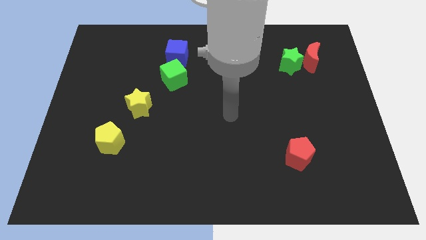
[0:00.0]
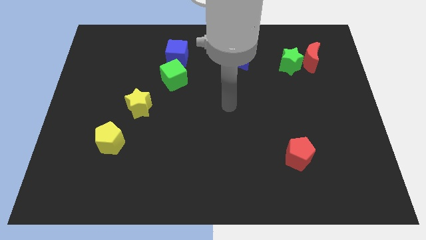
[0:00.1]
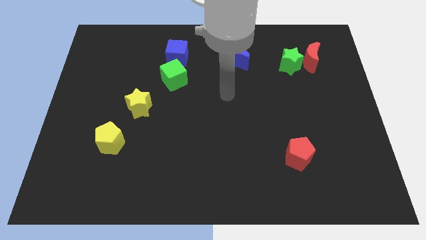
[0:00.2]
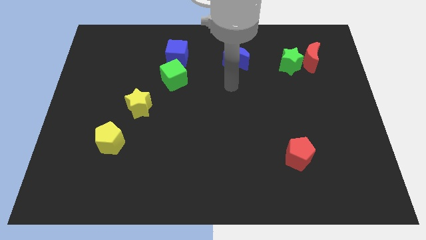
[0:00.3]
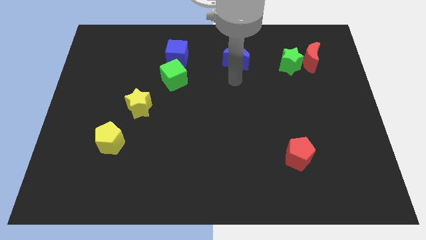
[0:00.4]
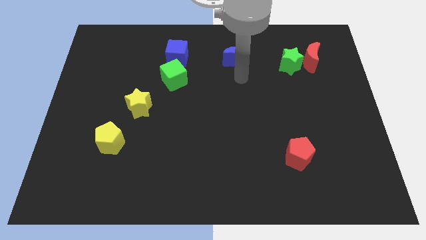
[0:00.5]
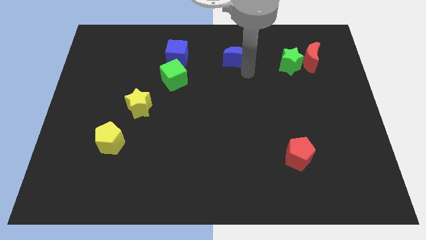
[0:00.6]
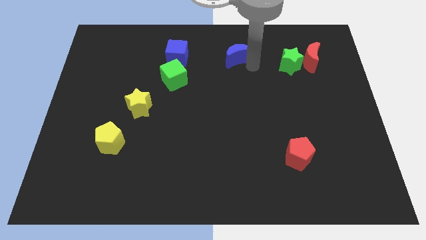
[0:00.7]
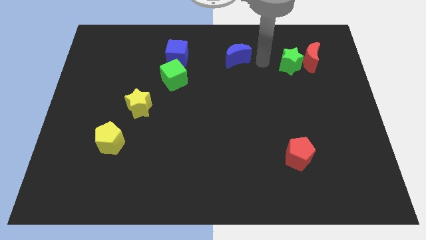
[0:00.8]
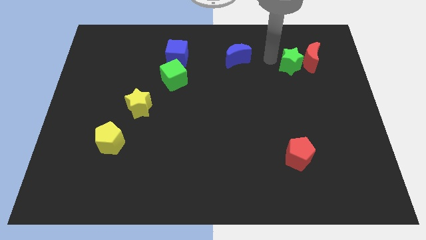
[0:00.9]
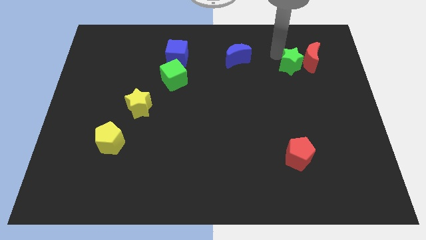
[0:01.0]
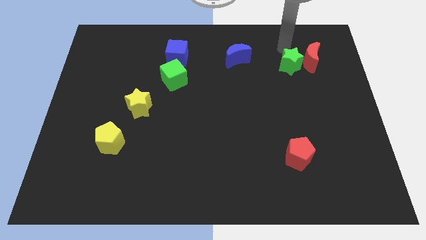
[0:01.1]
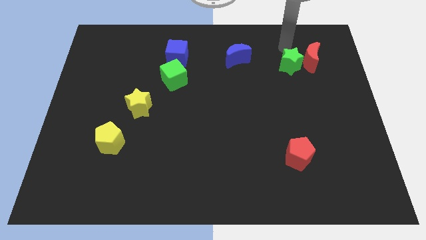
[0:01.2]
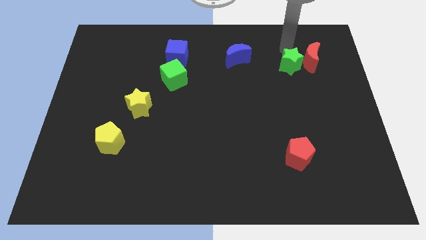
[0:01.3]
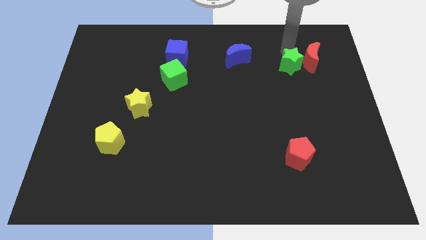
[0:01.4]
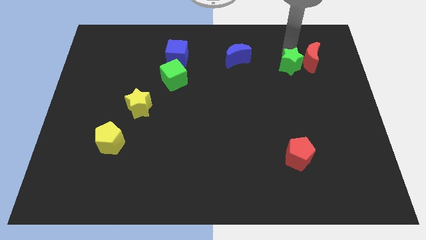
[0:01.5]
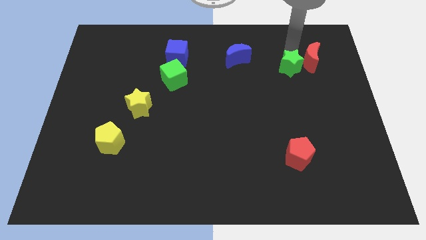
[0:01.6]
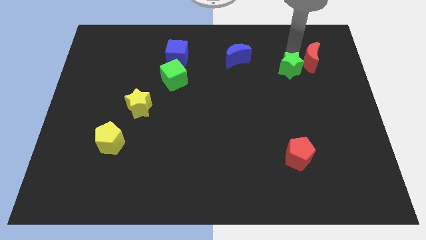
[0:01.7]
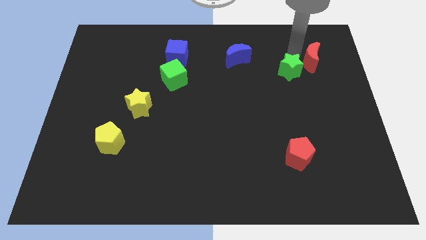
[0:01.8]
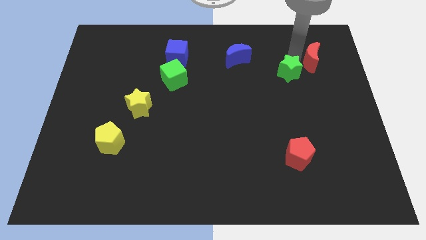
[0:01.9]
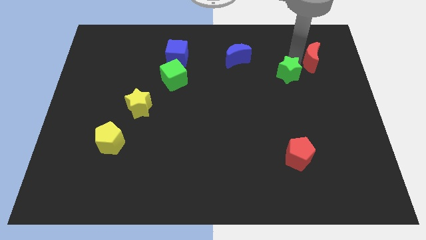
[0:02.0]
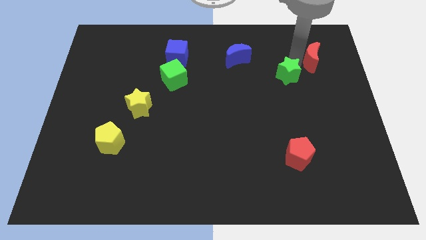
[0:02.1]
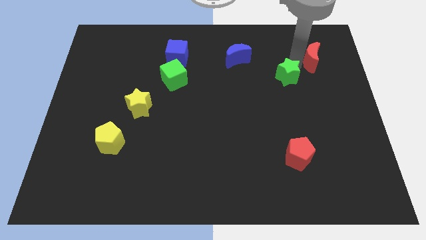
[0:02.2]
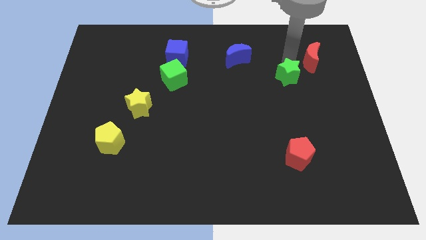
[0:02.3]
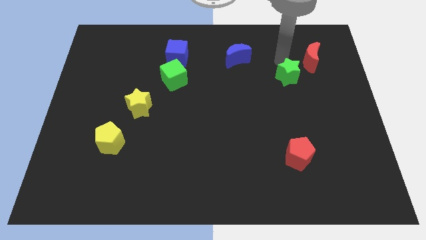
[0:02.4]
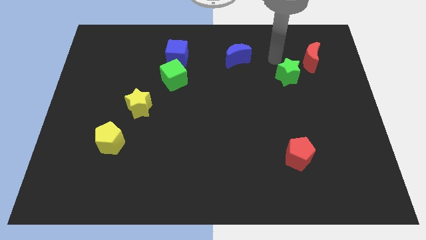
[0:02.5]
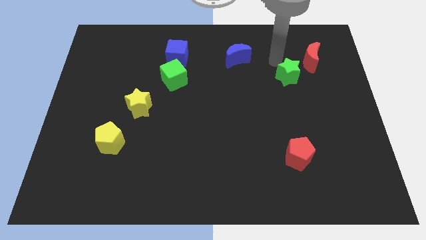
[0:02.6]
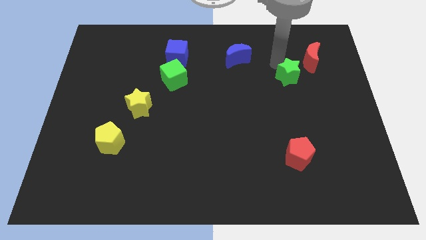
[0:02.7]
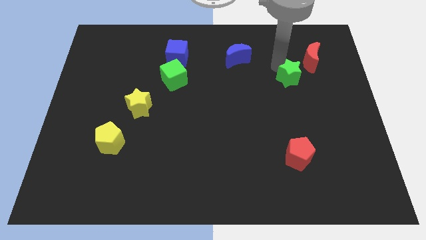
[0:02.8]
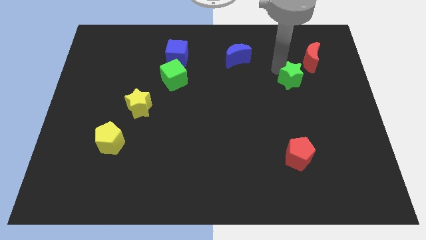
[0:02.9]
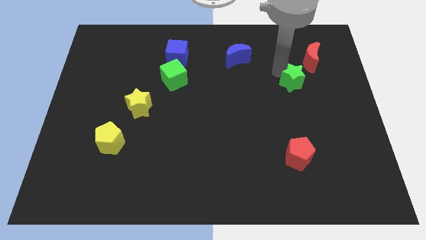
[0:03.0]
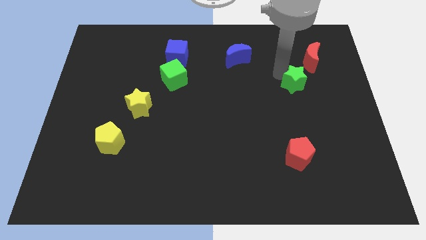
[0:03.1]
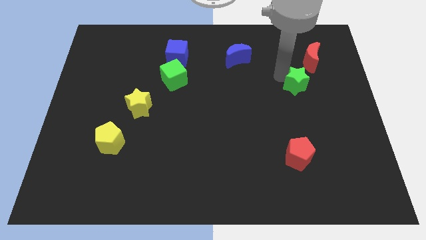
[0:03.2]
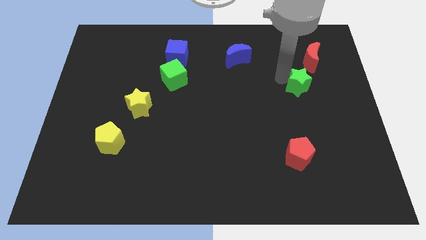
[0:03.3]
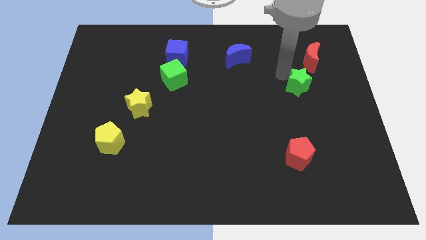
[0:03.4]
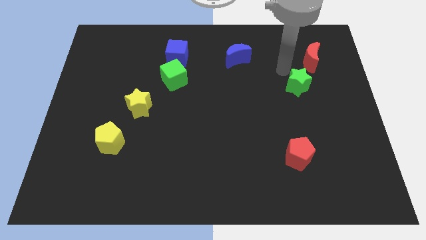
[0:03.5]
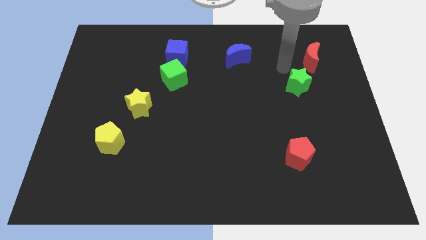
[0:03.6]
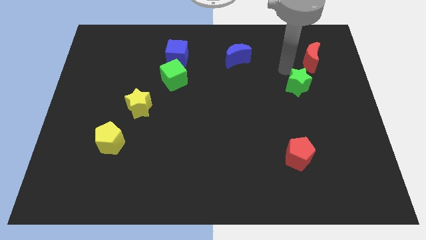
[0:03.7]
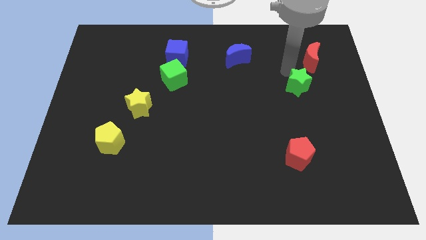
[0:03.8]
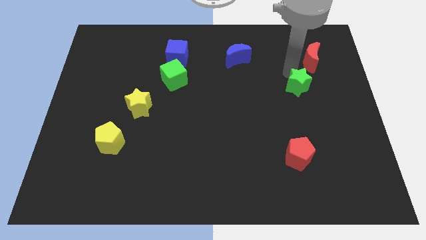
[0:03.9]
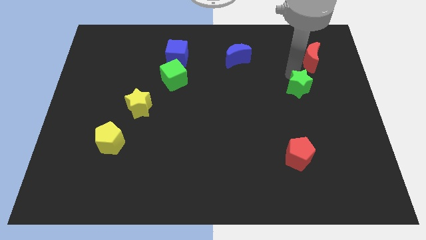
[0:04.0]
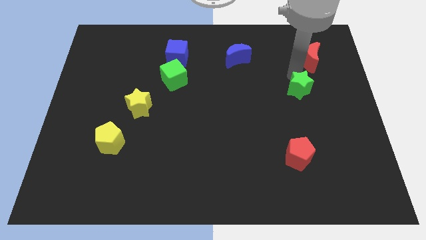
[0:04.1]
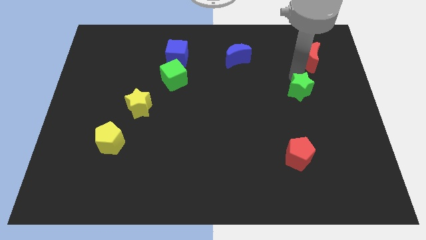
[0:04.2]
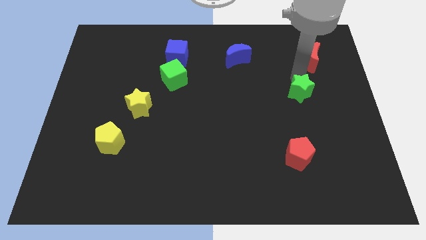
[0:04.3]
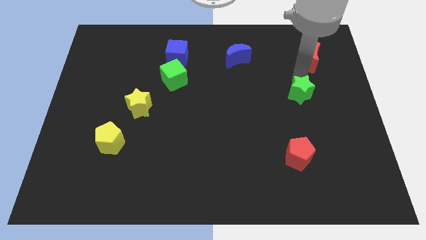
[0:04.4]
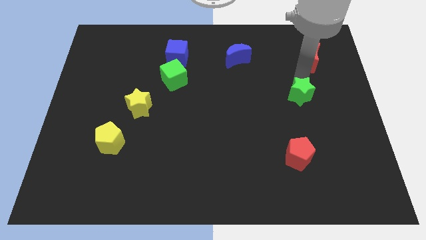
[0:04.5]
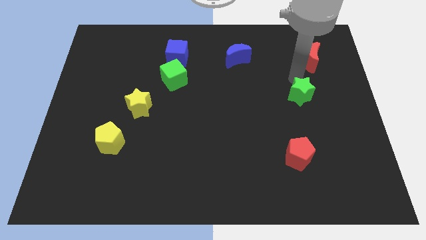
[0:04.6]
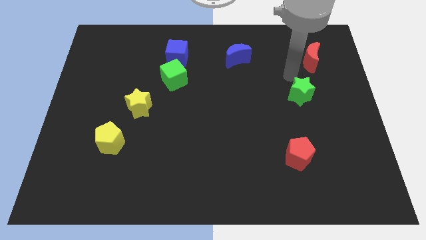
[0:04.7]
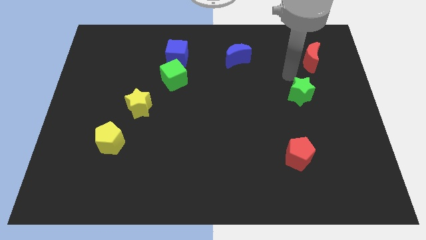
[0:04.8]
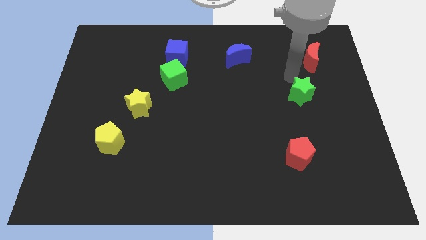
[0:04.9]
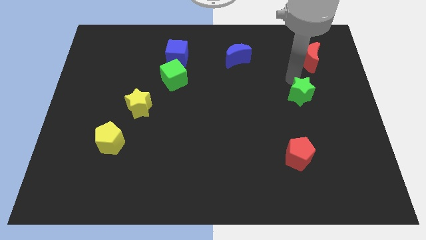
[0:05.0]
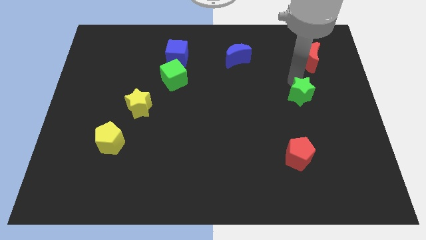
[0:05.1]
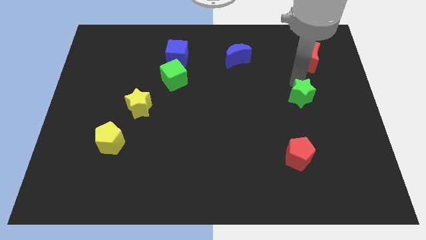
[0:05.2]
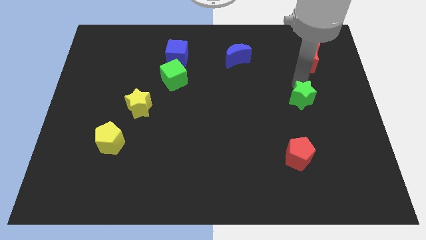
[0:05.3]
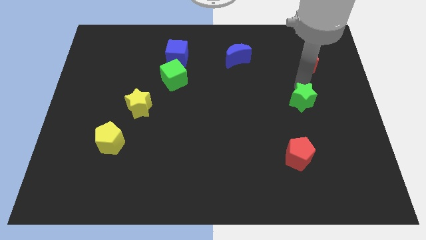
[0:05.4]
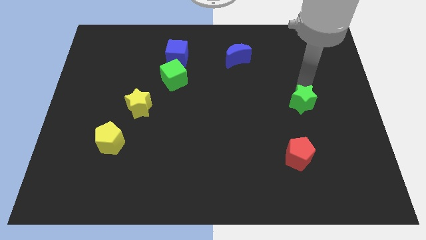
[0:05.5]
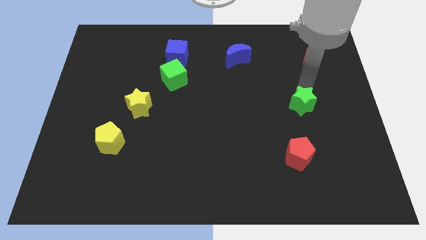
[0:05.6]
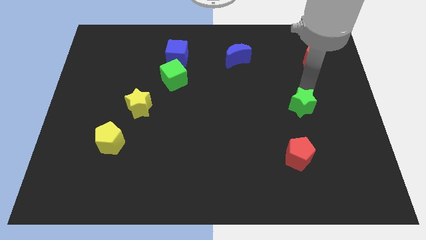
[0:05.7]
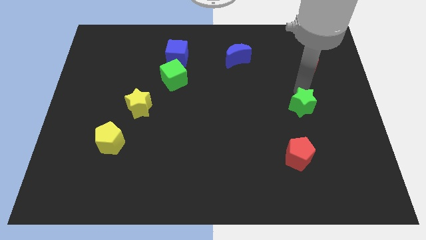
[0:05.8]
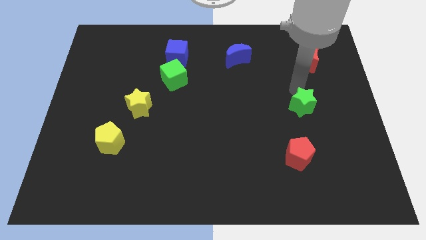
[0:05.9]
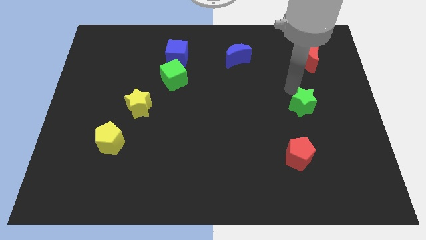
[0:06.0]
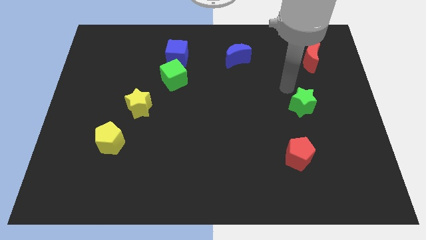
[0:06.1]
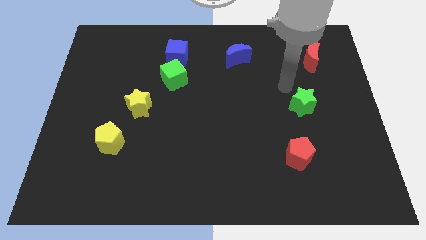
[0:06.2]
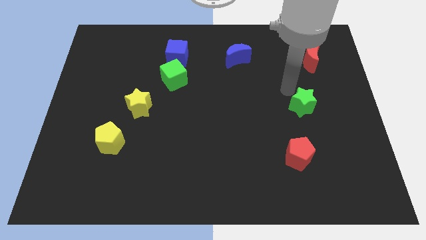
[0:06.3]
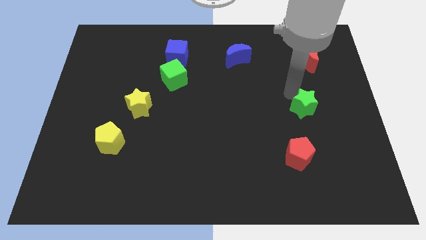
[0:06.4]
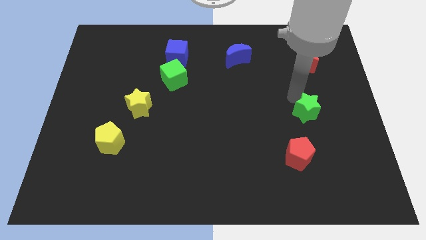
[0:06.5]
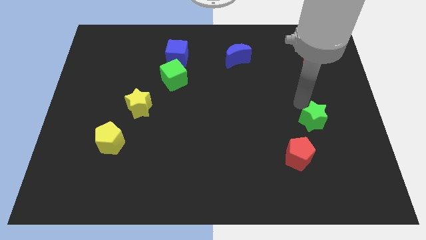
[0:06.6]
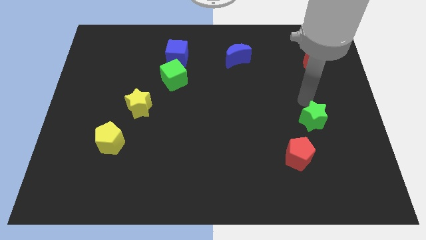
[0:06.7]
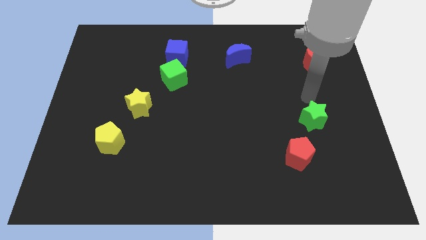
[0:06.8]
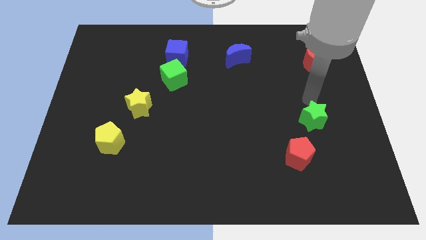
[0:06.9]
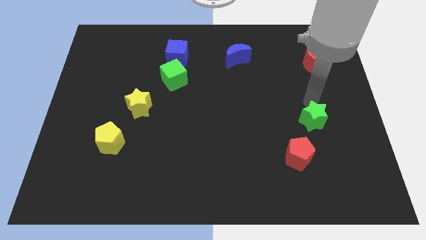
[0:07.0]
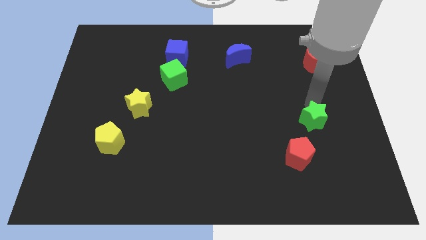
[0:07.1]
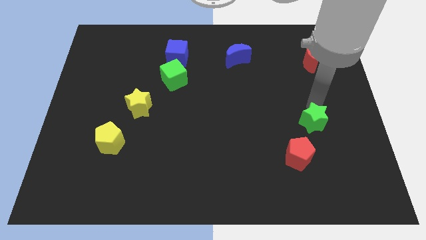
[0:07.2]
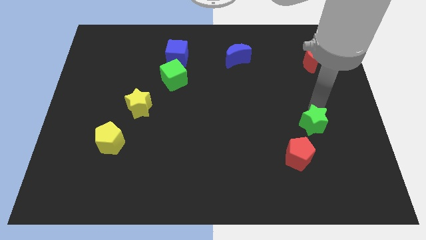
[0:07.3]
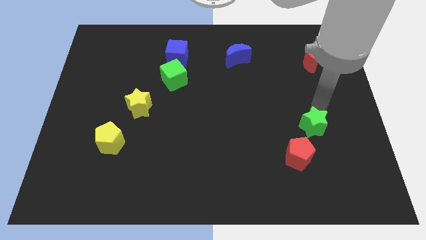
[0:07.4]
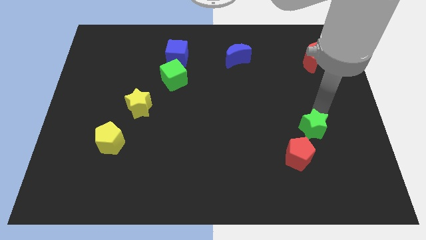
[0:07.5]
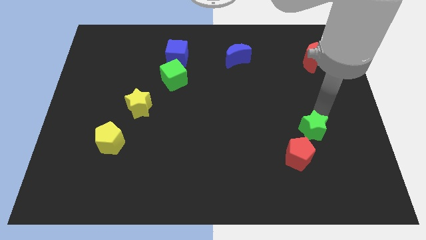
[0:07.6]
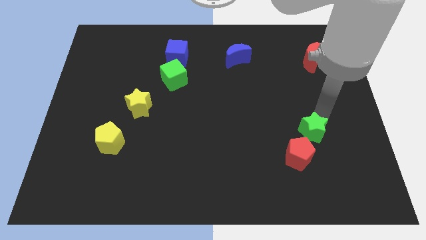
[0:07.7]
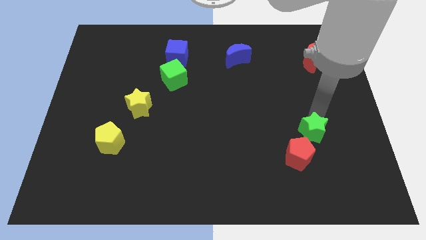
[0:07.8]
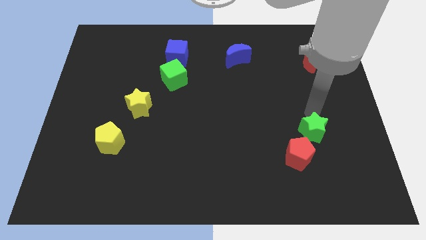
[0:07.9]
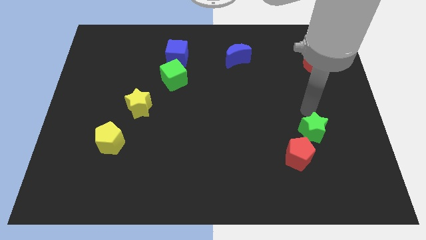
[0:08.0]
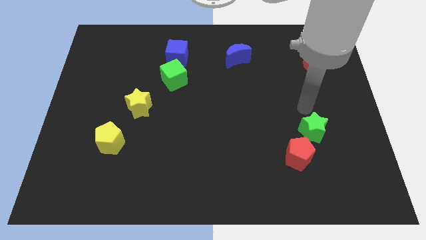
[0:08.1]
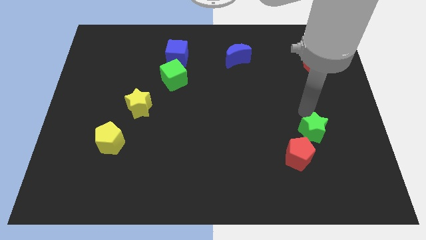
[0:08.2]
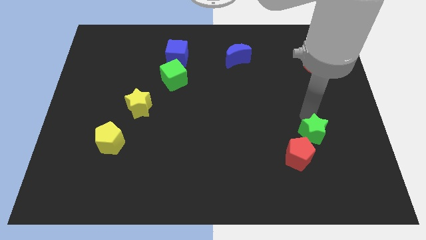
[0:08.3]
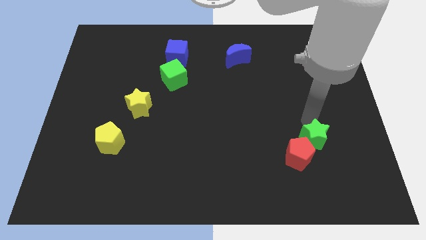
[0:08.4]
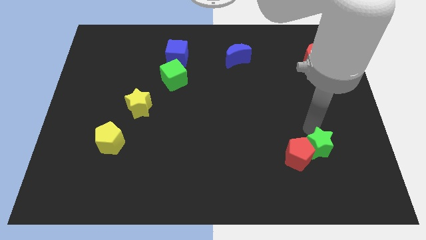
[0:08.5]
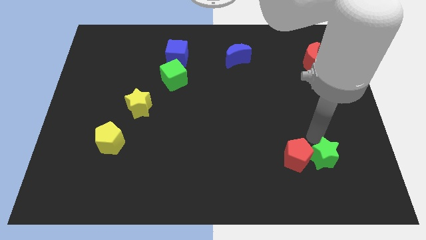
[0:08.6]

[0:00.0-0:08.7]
push the green star diagonally down and to the right of the red pentagon
